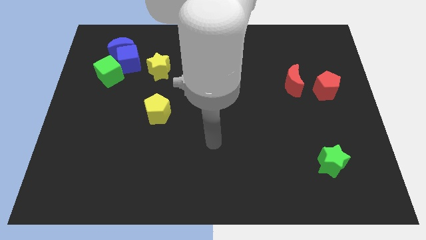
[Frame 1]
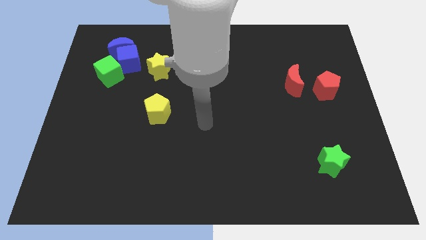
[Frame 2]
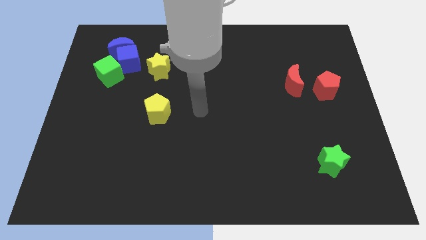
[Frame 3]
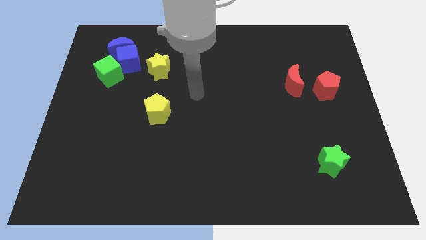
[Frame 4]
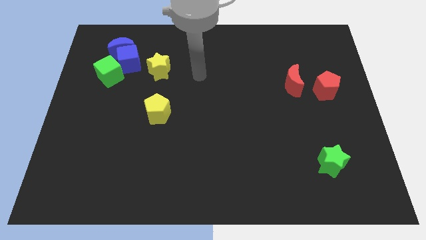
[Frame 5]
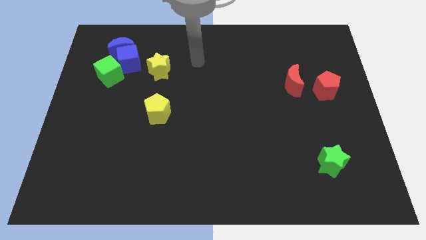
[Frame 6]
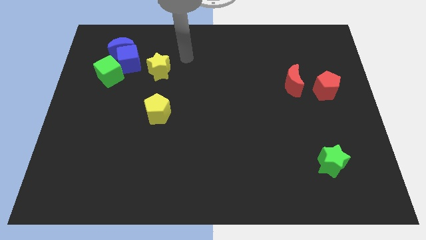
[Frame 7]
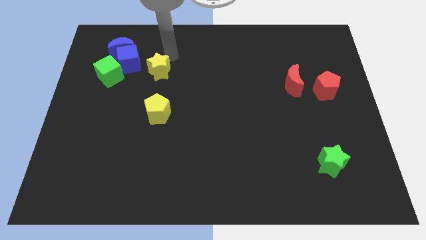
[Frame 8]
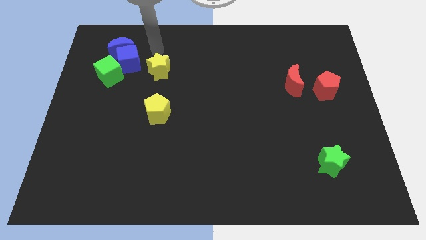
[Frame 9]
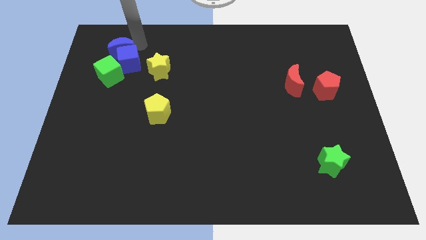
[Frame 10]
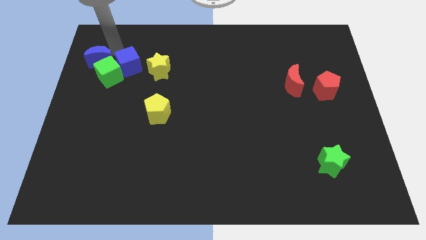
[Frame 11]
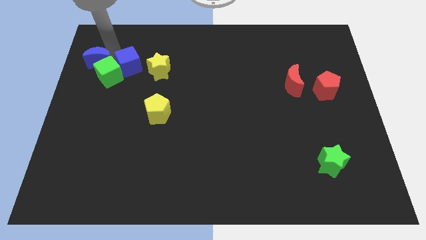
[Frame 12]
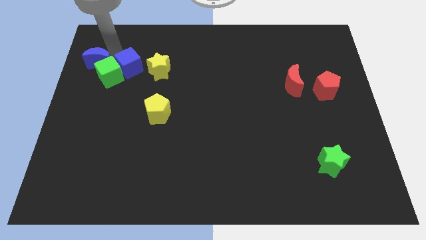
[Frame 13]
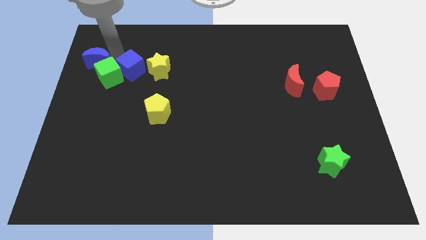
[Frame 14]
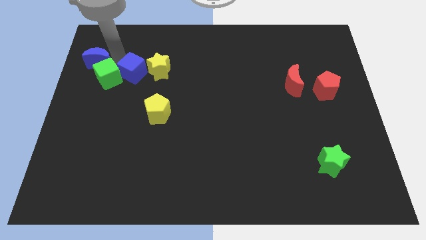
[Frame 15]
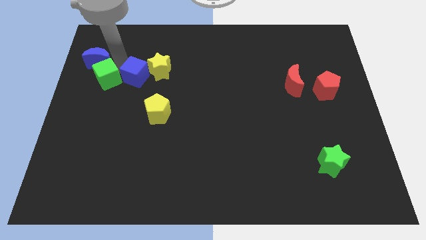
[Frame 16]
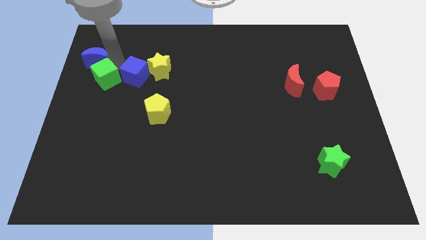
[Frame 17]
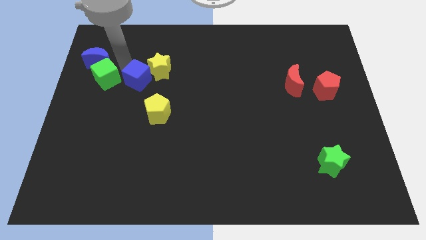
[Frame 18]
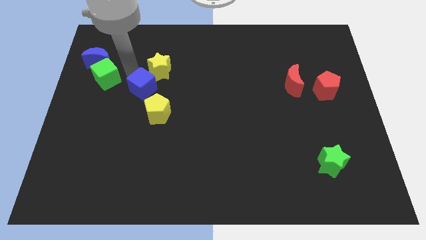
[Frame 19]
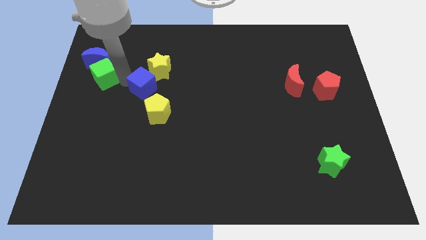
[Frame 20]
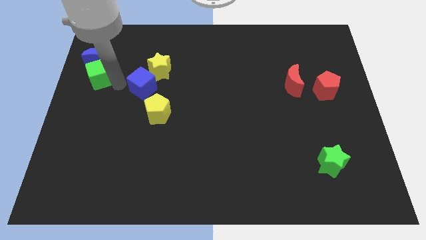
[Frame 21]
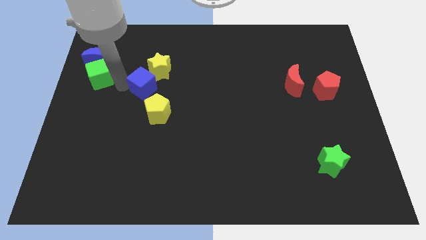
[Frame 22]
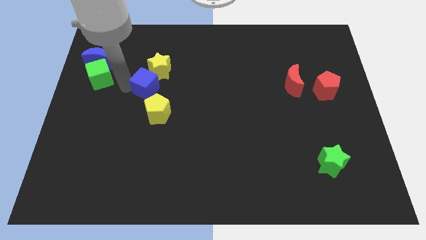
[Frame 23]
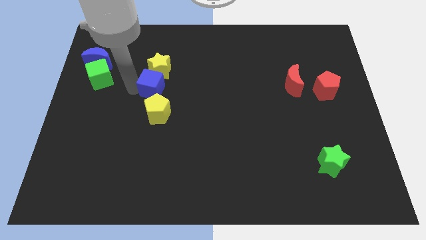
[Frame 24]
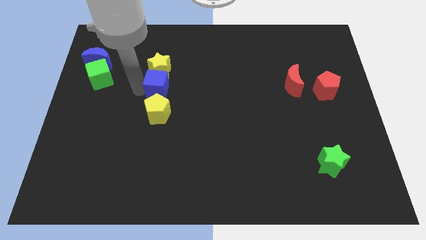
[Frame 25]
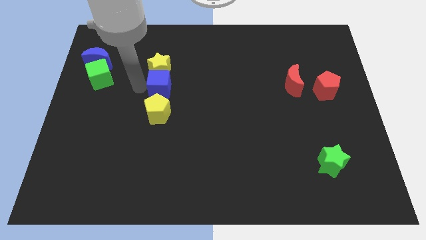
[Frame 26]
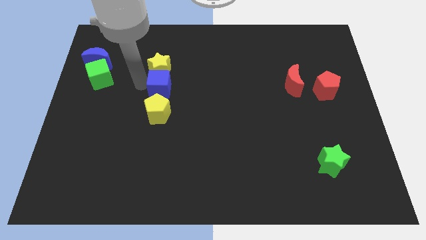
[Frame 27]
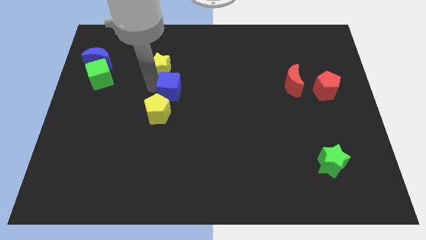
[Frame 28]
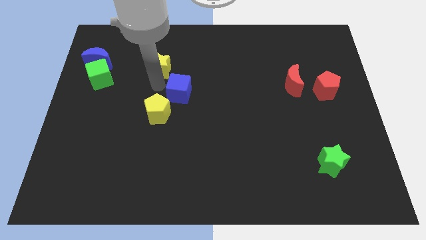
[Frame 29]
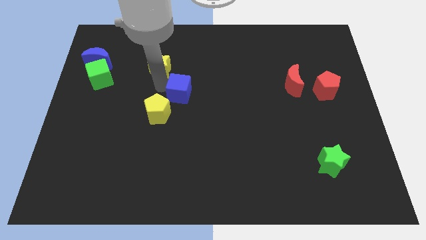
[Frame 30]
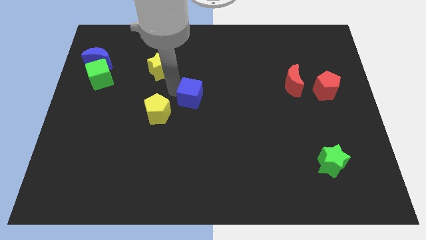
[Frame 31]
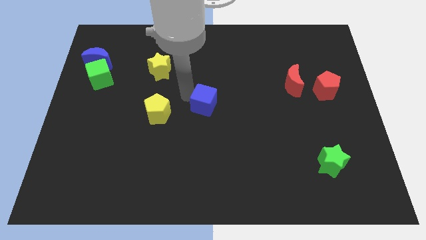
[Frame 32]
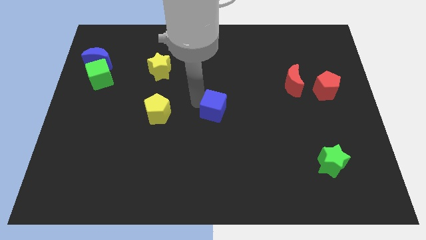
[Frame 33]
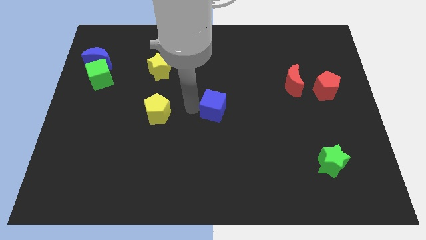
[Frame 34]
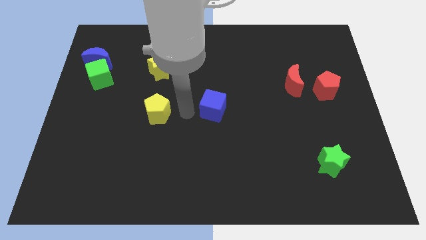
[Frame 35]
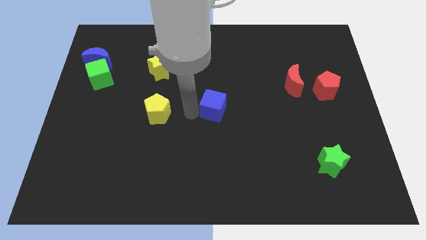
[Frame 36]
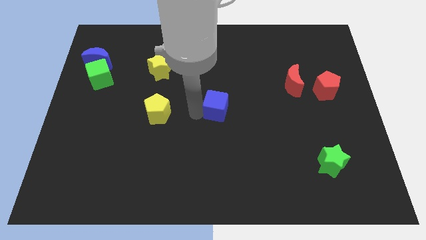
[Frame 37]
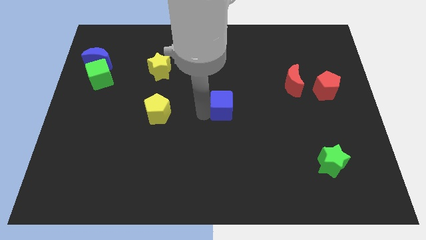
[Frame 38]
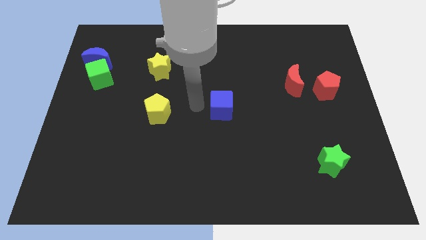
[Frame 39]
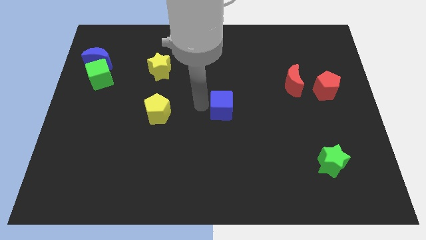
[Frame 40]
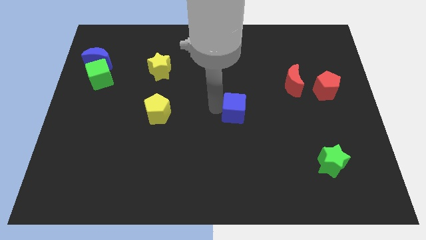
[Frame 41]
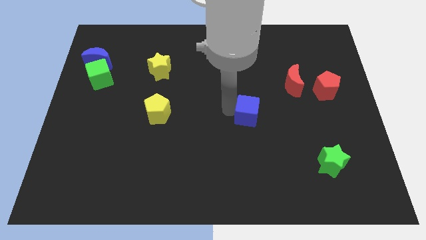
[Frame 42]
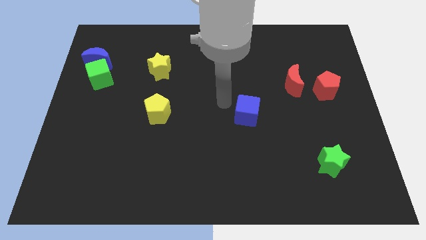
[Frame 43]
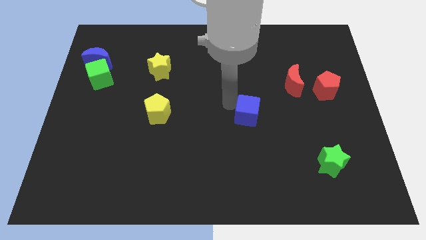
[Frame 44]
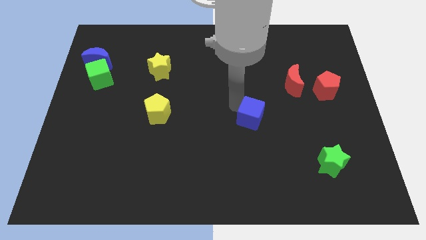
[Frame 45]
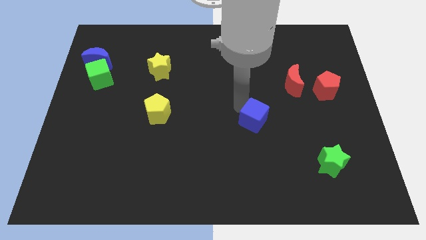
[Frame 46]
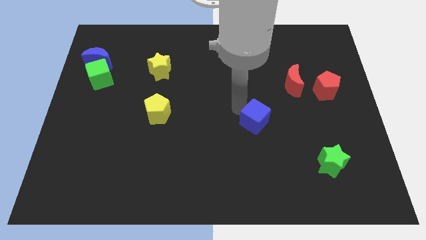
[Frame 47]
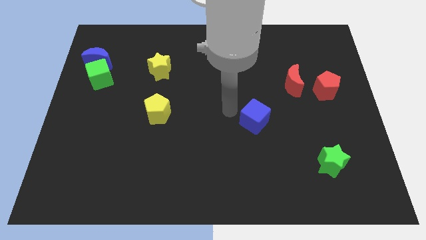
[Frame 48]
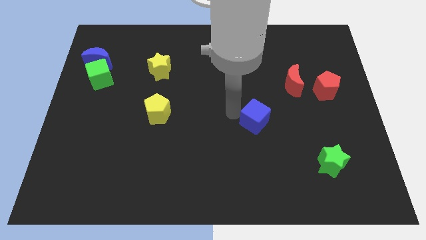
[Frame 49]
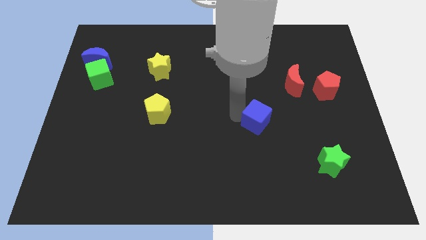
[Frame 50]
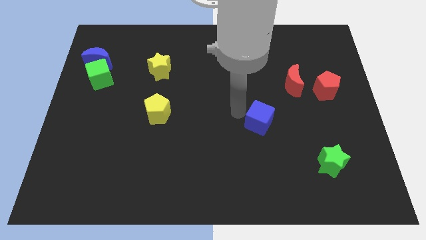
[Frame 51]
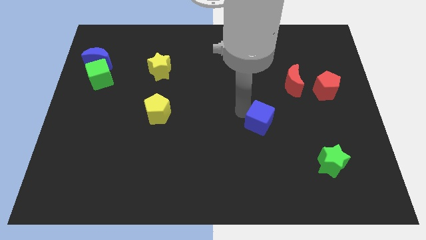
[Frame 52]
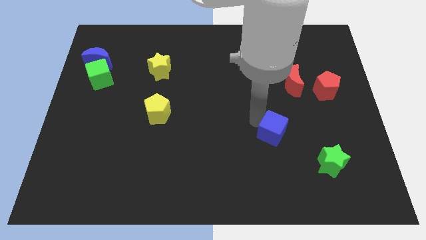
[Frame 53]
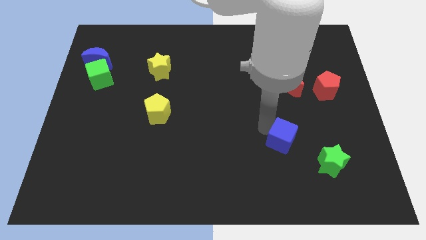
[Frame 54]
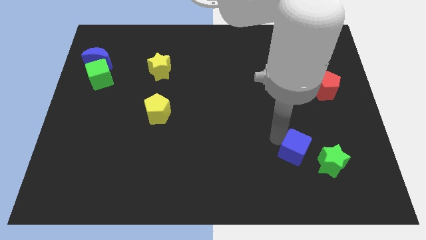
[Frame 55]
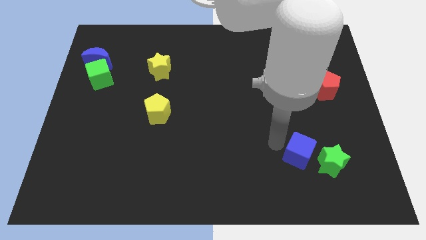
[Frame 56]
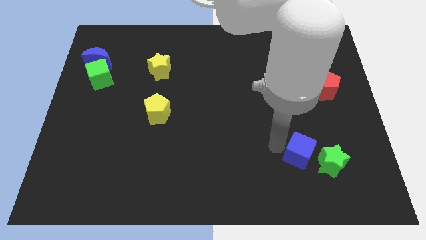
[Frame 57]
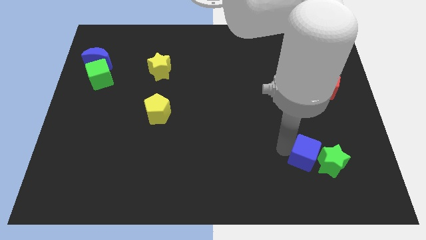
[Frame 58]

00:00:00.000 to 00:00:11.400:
slide the blue cube towards the green star

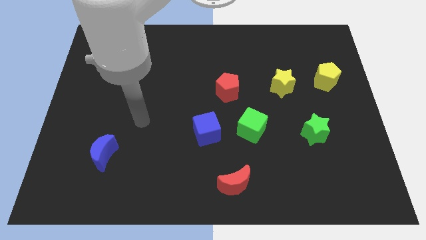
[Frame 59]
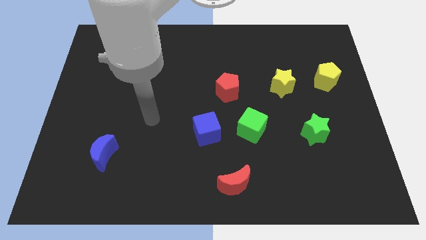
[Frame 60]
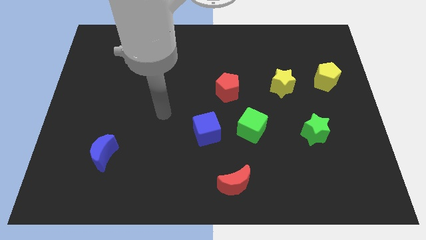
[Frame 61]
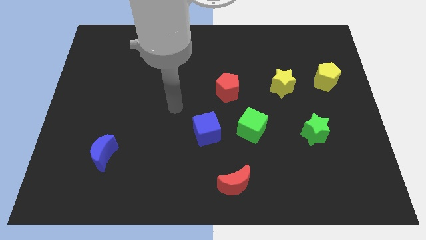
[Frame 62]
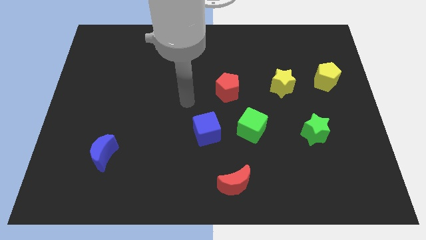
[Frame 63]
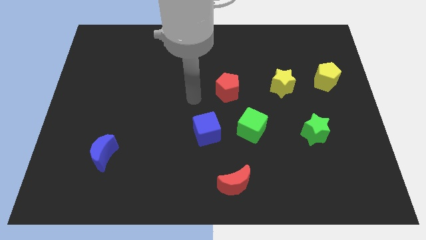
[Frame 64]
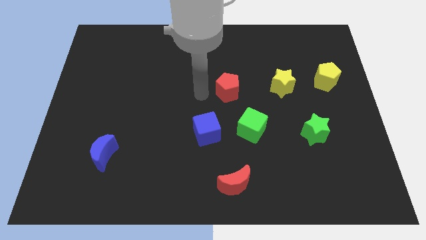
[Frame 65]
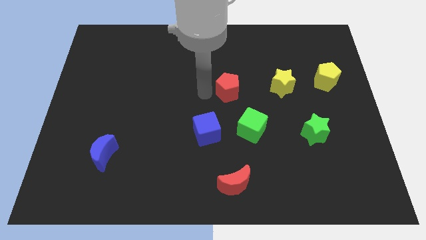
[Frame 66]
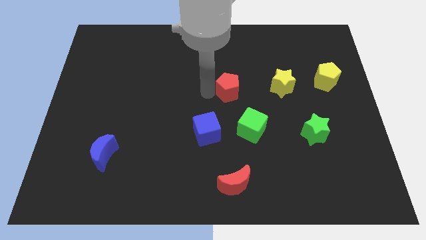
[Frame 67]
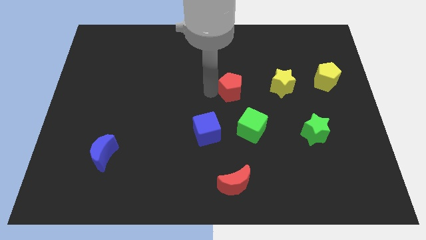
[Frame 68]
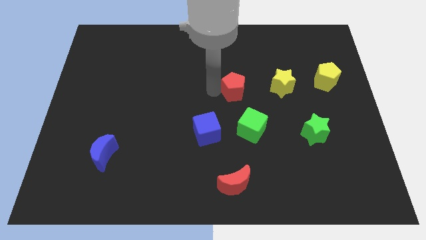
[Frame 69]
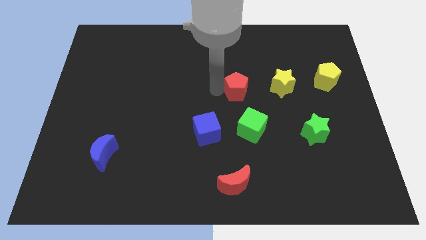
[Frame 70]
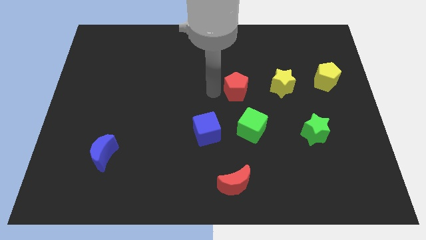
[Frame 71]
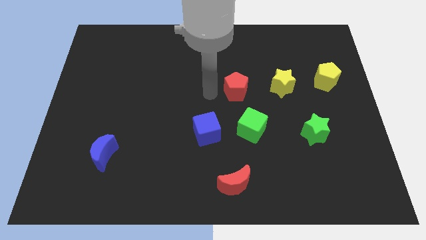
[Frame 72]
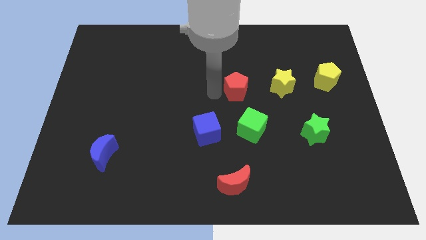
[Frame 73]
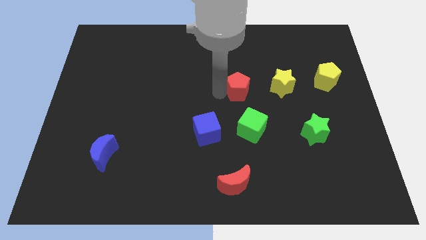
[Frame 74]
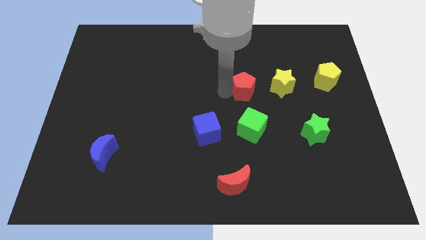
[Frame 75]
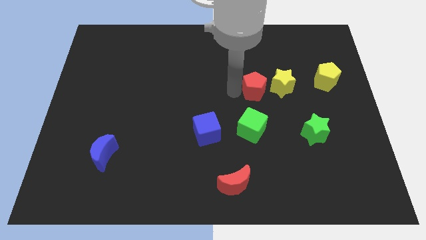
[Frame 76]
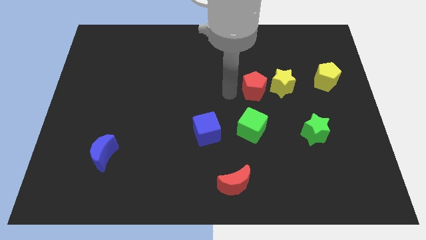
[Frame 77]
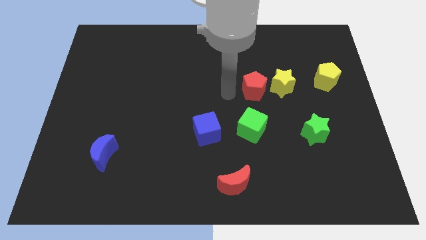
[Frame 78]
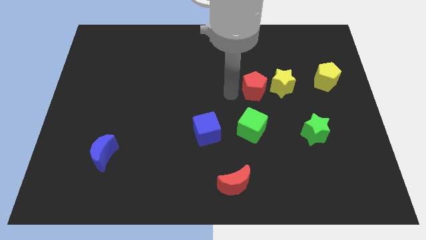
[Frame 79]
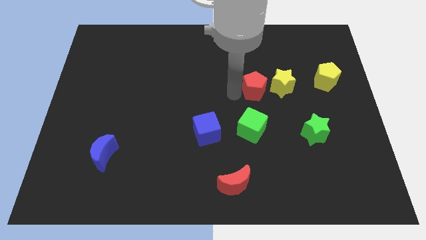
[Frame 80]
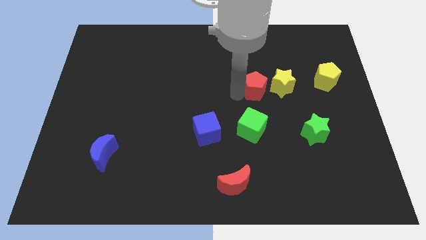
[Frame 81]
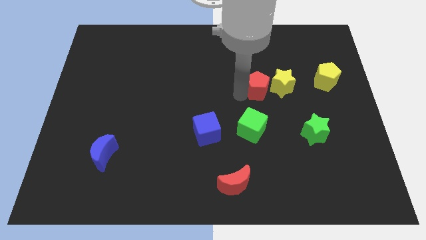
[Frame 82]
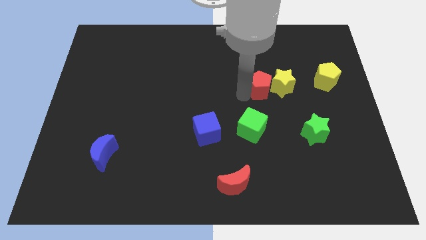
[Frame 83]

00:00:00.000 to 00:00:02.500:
push the red pentagon towards the yellow star
